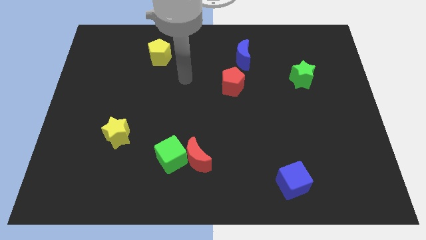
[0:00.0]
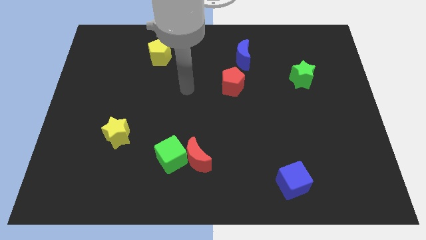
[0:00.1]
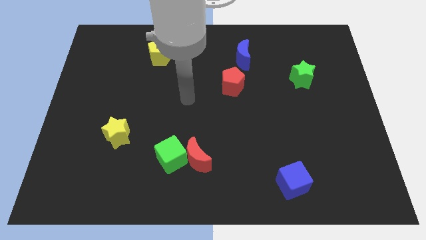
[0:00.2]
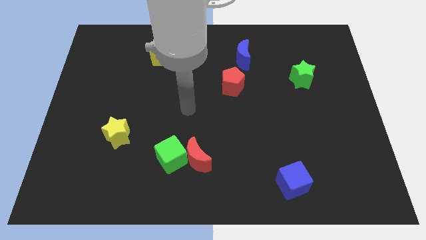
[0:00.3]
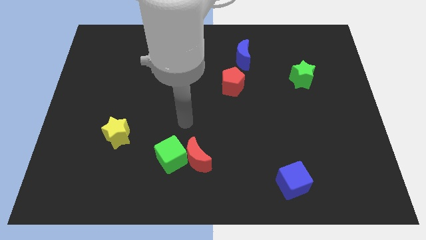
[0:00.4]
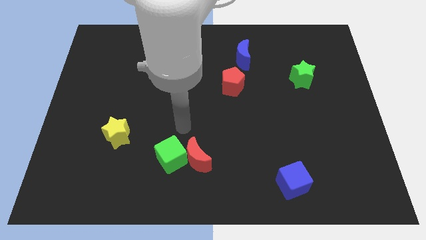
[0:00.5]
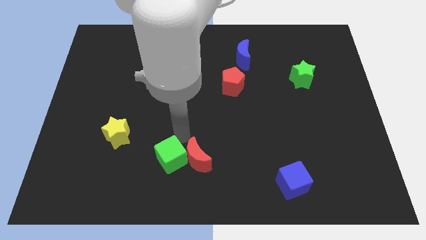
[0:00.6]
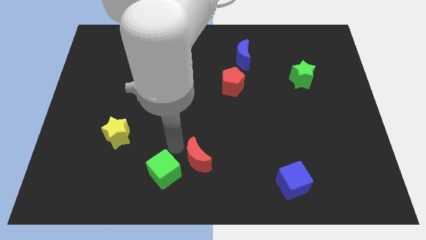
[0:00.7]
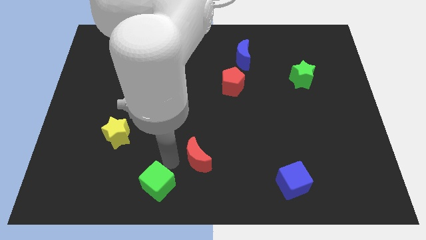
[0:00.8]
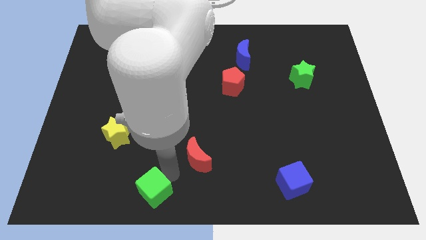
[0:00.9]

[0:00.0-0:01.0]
pull the red moon apart from the green cube

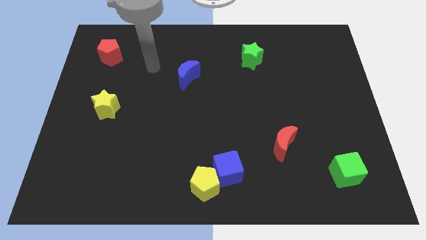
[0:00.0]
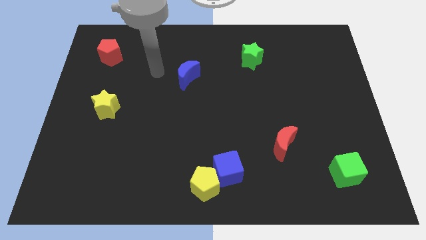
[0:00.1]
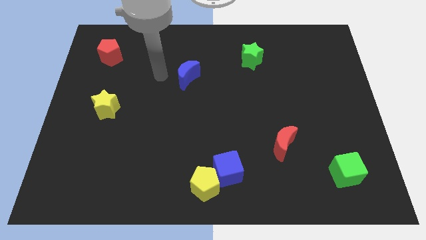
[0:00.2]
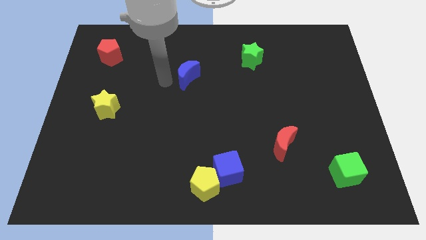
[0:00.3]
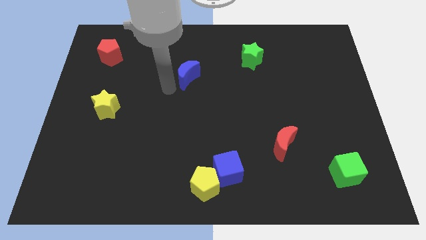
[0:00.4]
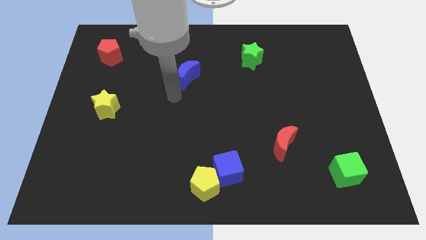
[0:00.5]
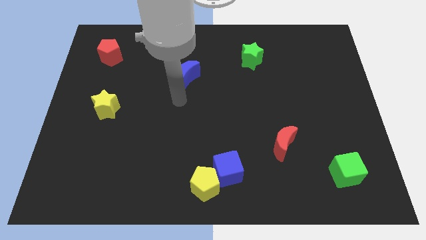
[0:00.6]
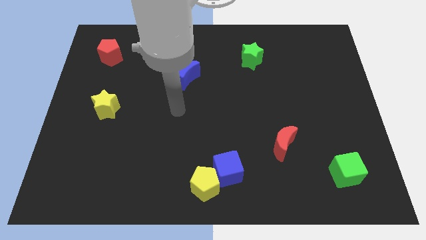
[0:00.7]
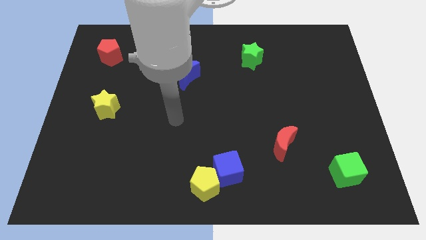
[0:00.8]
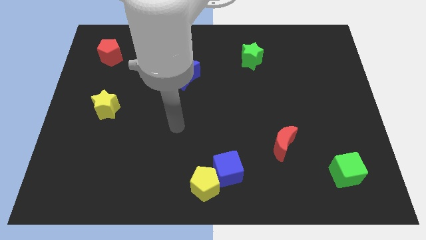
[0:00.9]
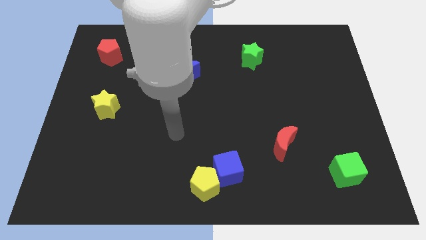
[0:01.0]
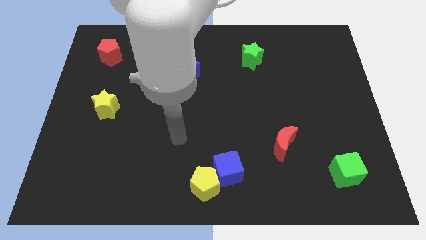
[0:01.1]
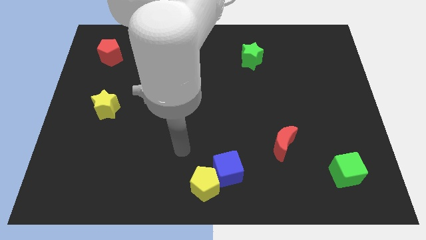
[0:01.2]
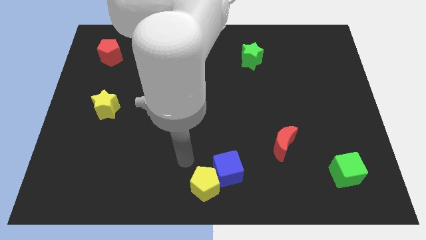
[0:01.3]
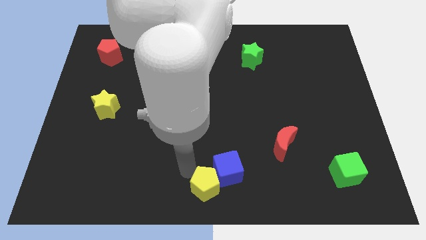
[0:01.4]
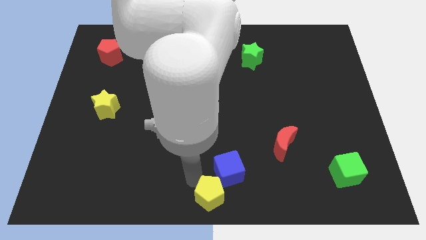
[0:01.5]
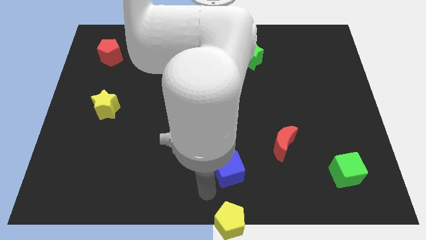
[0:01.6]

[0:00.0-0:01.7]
separate the blue cube from the yellow pentagon

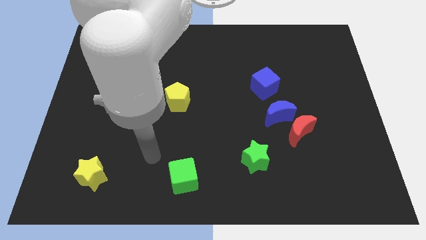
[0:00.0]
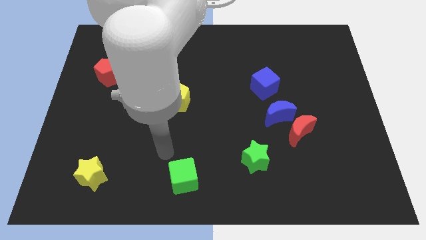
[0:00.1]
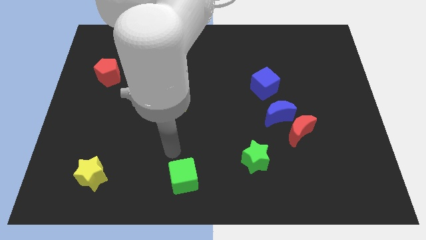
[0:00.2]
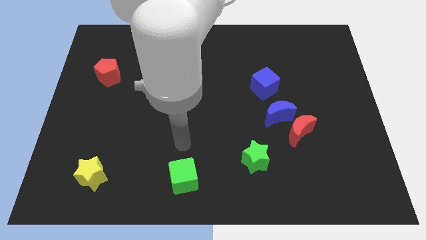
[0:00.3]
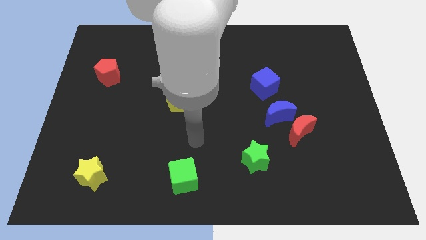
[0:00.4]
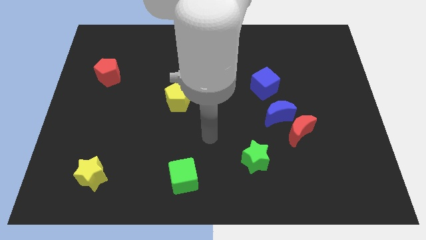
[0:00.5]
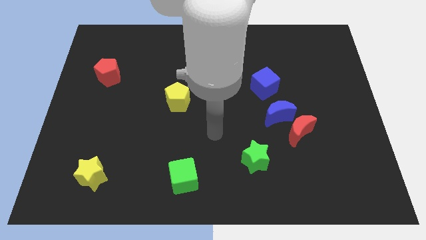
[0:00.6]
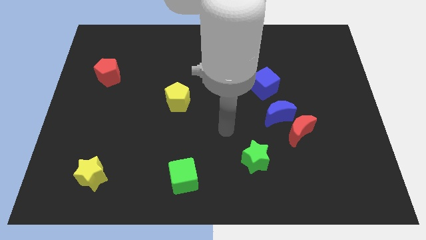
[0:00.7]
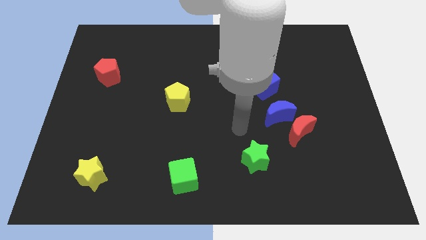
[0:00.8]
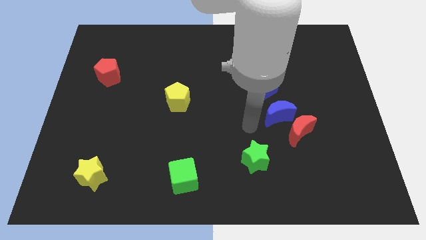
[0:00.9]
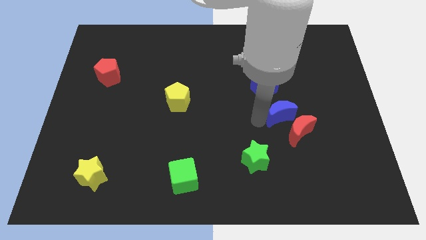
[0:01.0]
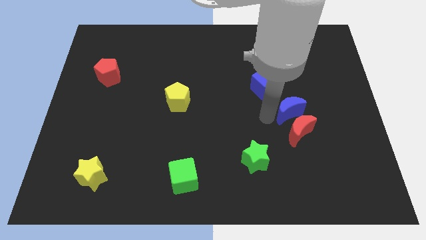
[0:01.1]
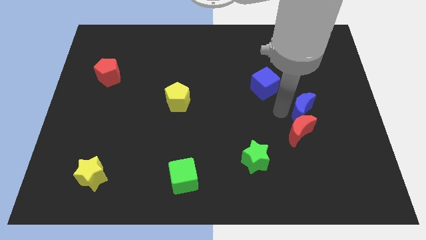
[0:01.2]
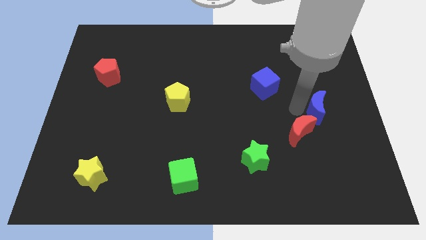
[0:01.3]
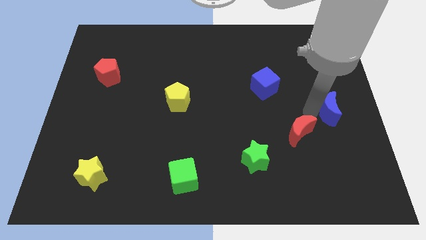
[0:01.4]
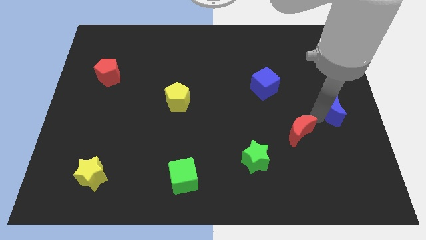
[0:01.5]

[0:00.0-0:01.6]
pull the red moon apart from the blue moon

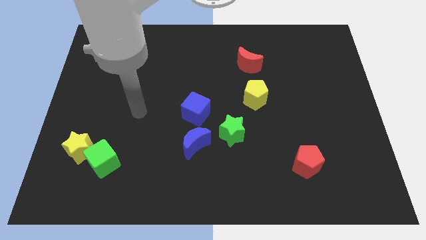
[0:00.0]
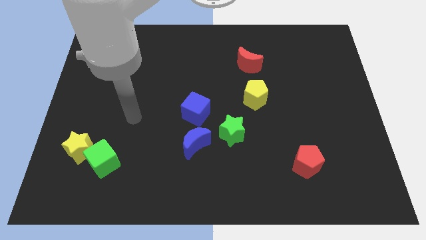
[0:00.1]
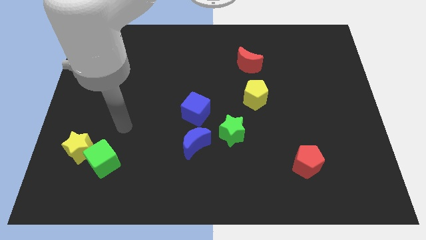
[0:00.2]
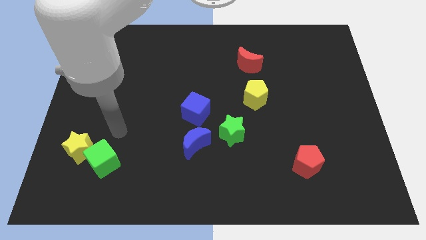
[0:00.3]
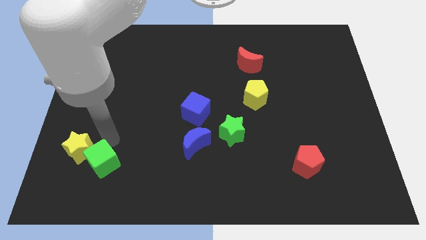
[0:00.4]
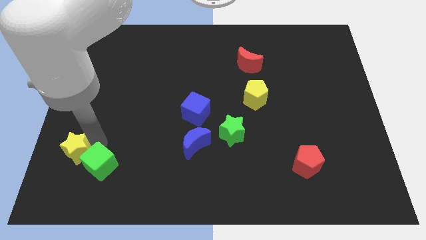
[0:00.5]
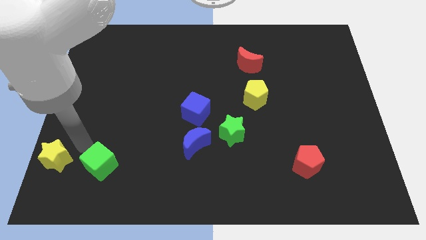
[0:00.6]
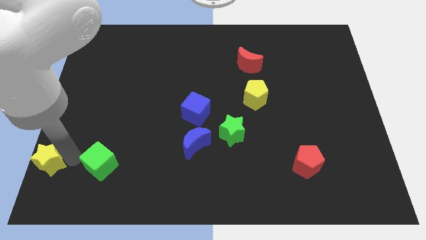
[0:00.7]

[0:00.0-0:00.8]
move the green cube away from the yellow star

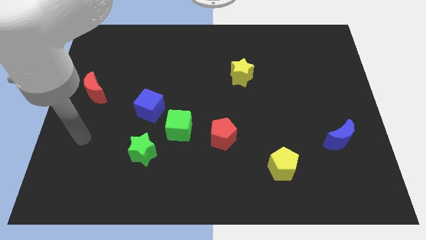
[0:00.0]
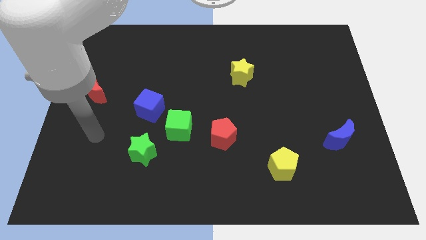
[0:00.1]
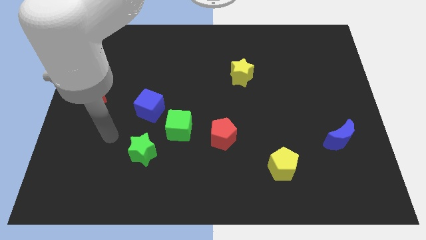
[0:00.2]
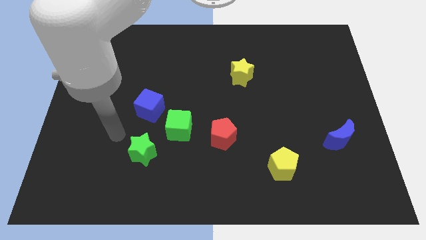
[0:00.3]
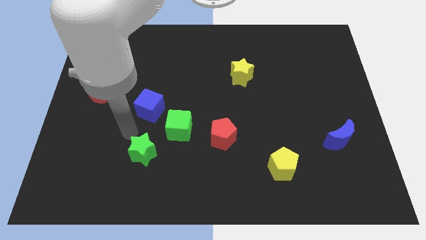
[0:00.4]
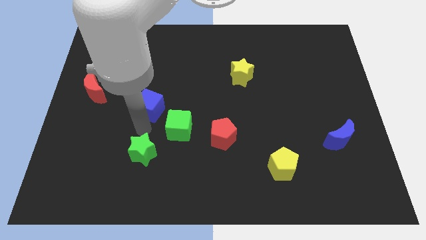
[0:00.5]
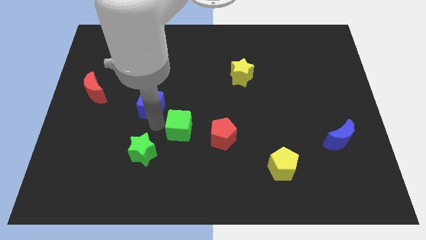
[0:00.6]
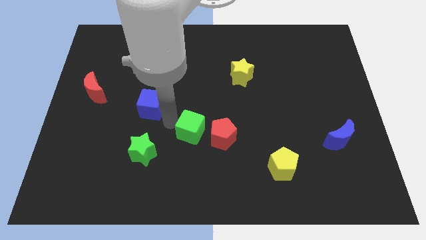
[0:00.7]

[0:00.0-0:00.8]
separate the blue cube from the green cube

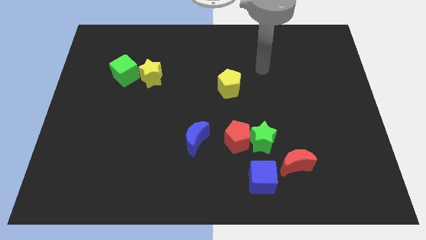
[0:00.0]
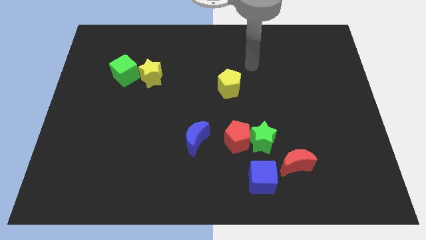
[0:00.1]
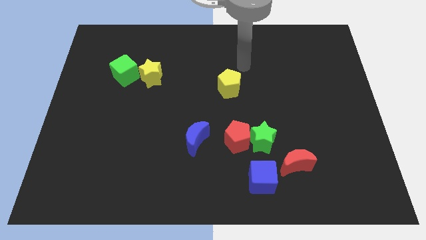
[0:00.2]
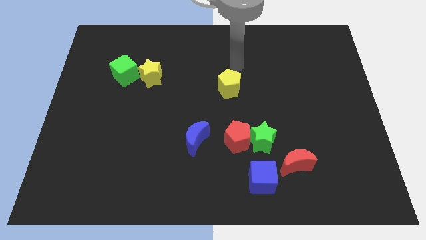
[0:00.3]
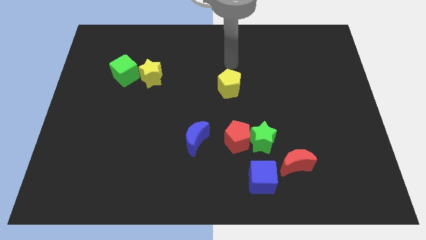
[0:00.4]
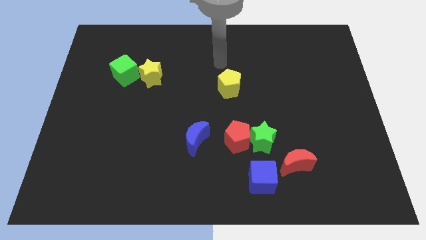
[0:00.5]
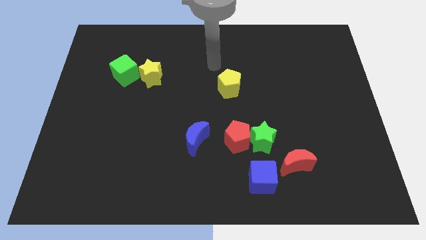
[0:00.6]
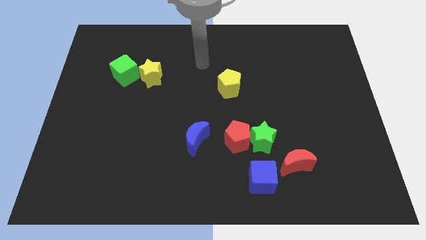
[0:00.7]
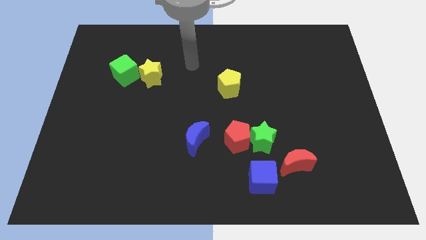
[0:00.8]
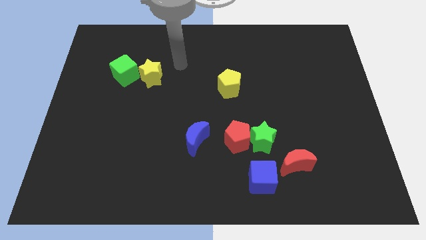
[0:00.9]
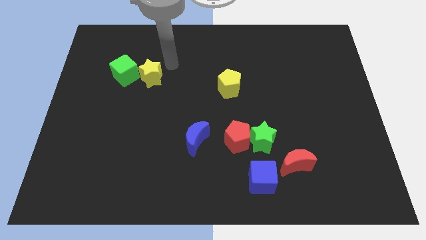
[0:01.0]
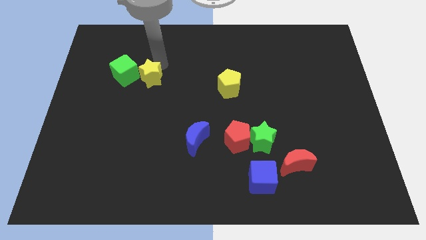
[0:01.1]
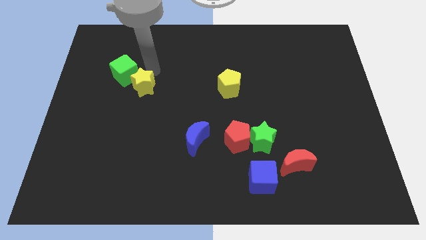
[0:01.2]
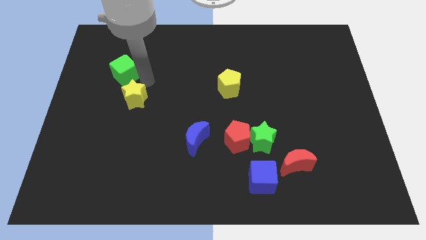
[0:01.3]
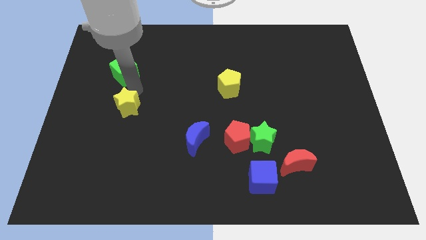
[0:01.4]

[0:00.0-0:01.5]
pull the green cube apart from the yellow star

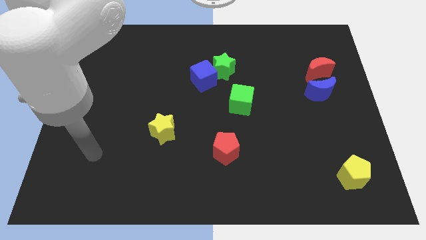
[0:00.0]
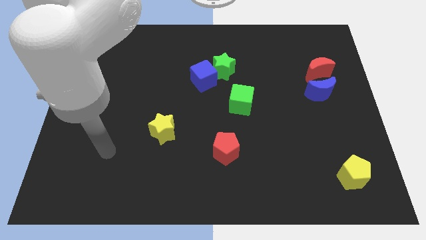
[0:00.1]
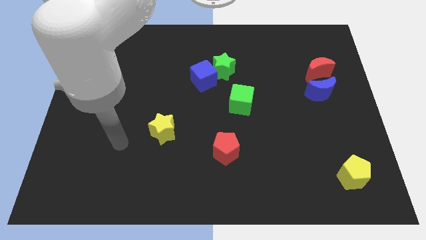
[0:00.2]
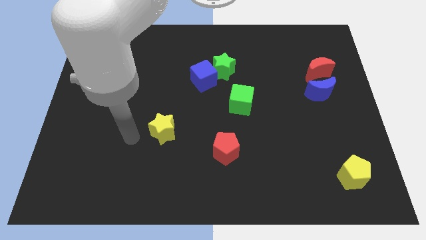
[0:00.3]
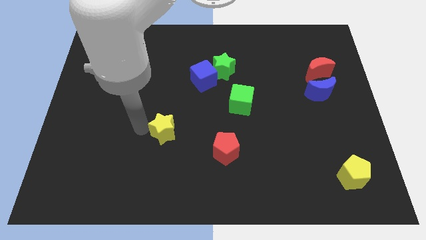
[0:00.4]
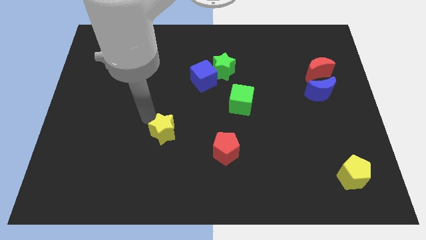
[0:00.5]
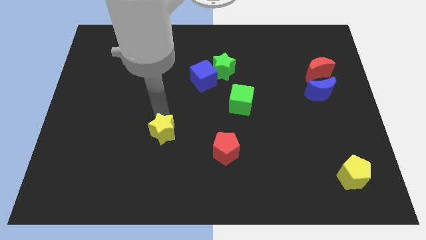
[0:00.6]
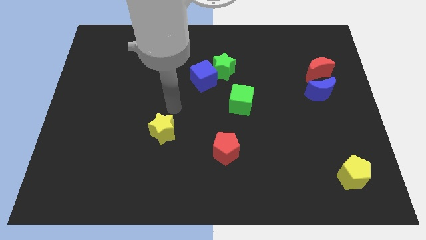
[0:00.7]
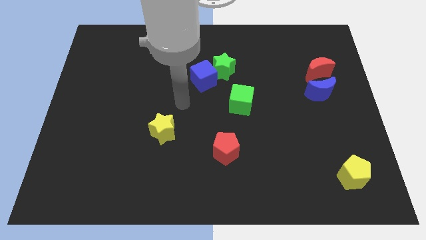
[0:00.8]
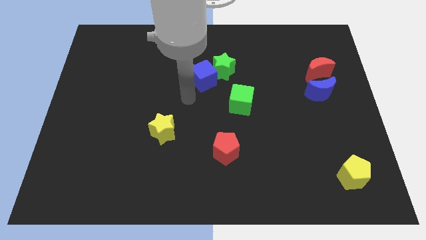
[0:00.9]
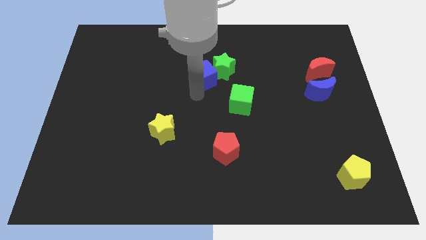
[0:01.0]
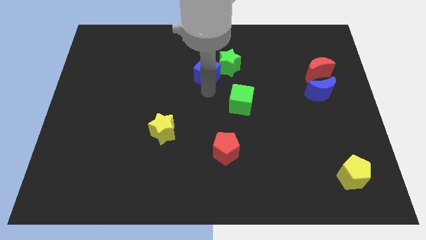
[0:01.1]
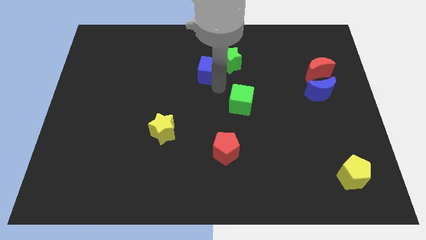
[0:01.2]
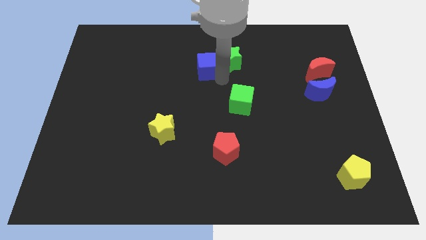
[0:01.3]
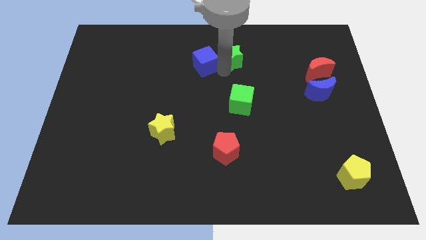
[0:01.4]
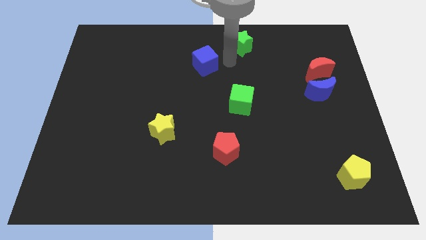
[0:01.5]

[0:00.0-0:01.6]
separate the blue cube from the green star

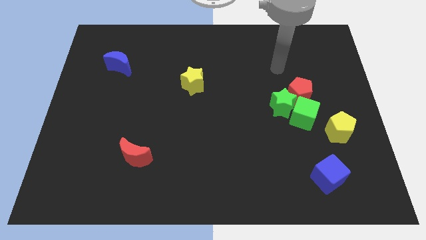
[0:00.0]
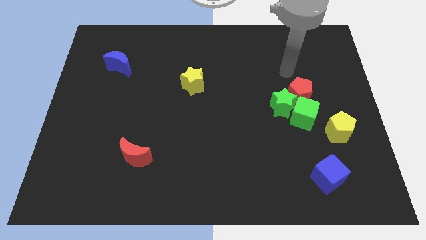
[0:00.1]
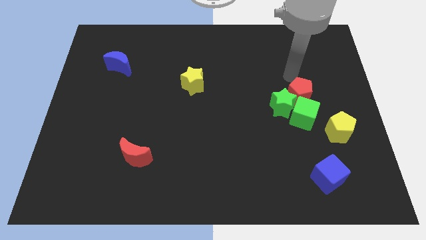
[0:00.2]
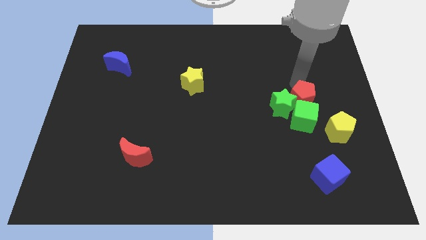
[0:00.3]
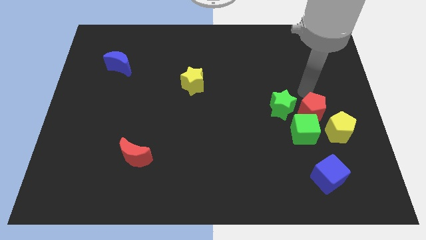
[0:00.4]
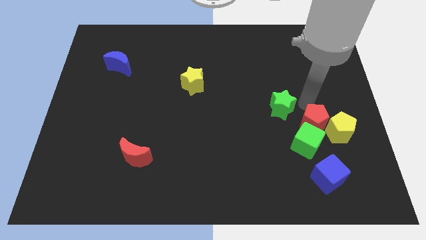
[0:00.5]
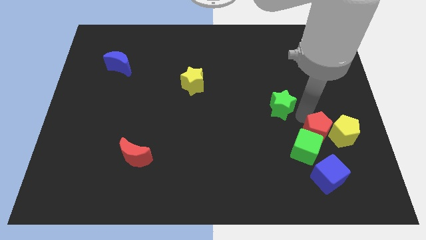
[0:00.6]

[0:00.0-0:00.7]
move the green star away from the red pentagon and green cube
